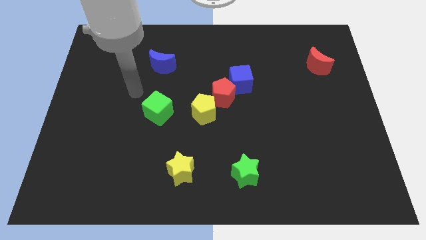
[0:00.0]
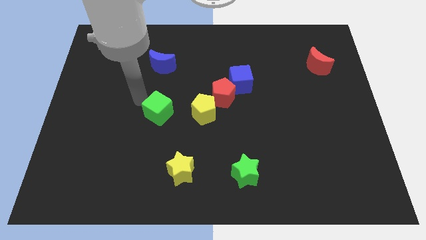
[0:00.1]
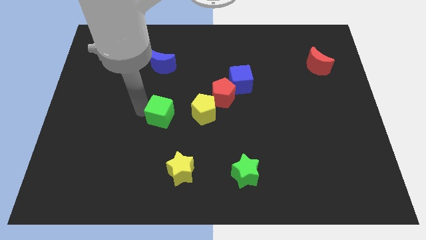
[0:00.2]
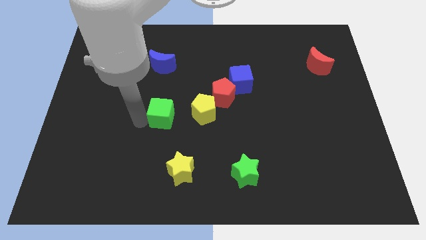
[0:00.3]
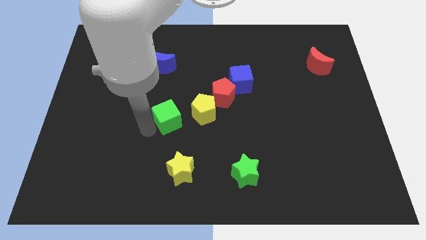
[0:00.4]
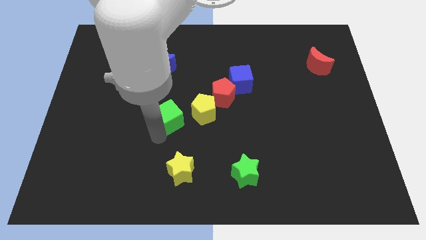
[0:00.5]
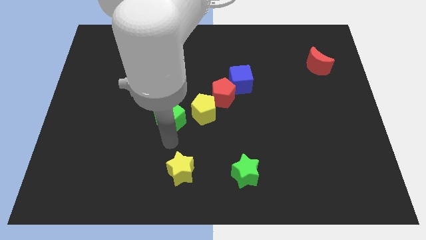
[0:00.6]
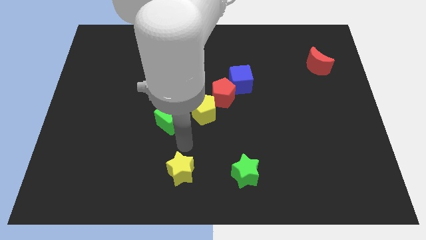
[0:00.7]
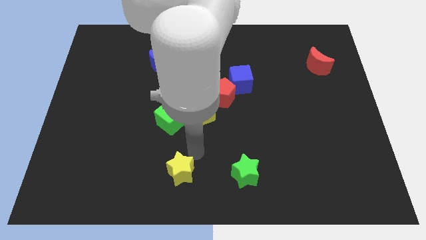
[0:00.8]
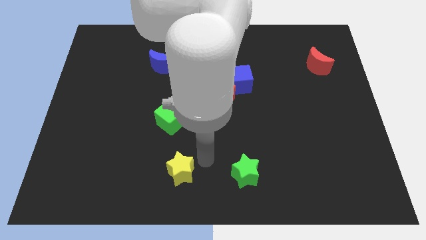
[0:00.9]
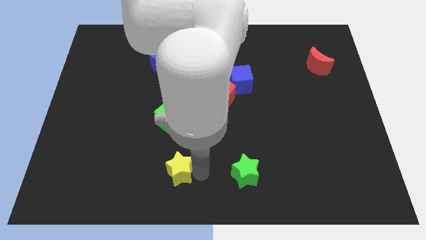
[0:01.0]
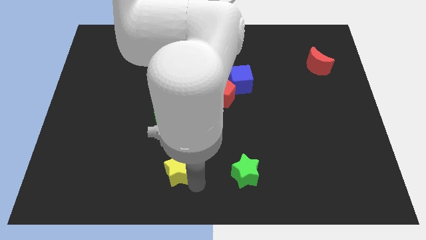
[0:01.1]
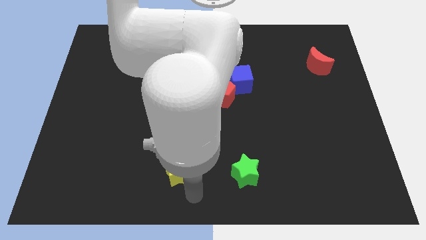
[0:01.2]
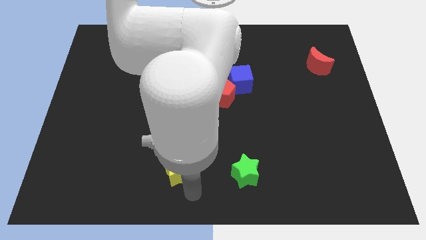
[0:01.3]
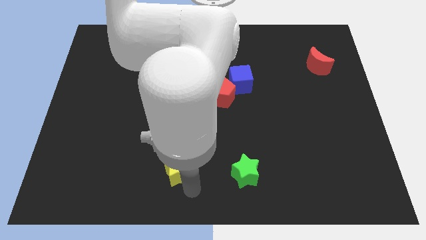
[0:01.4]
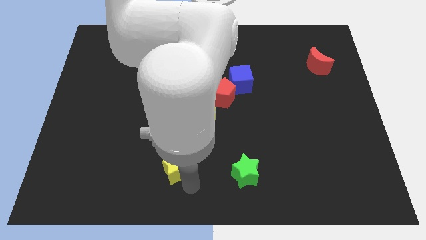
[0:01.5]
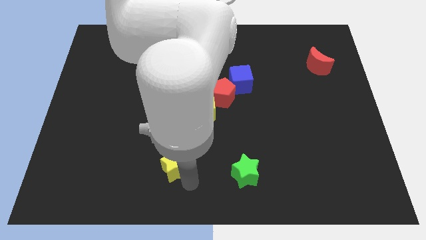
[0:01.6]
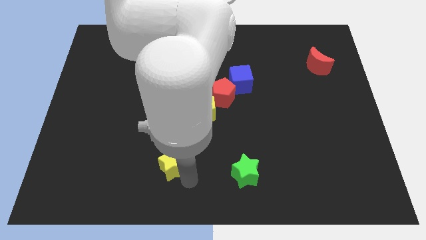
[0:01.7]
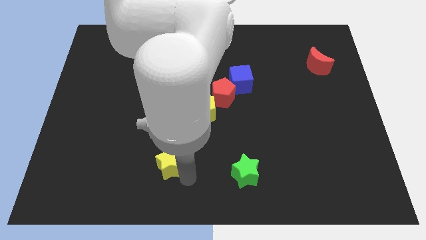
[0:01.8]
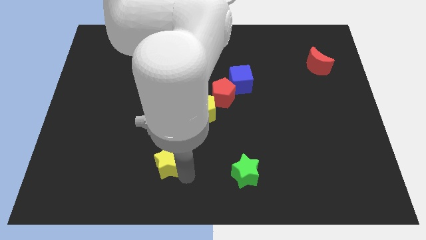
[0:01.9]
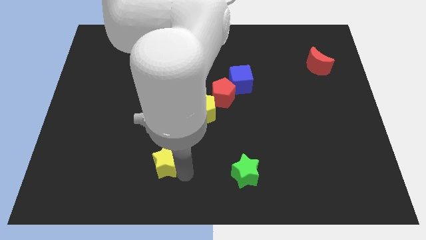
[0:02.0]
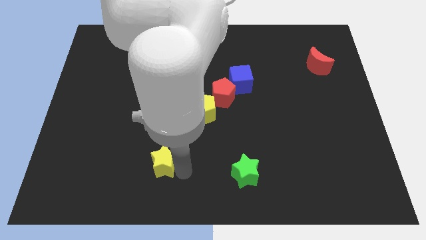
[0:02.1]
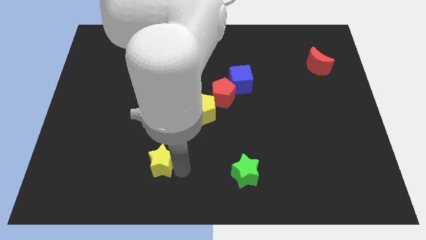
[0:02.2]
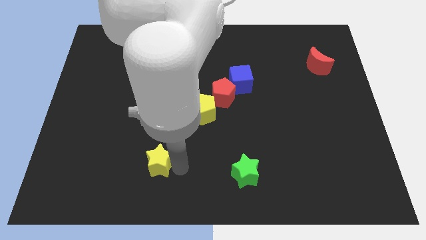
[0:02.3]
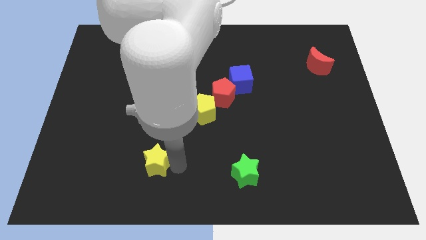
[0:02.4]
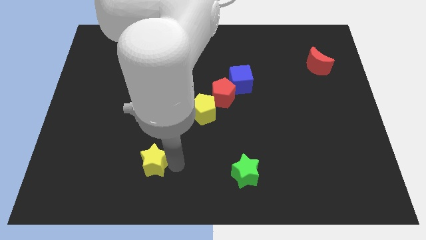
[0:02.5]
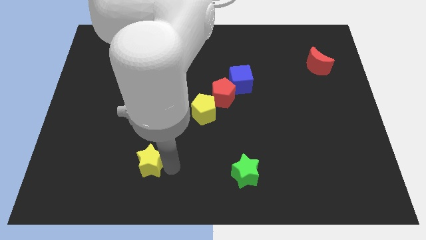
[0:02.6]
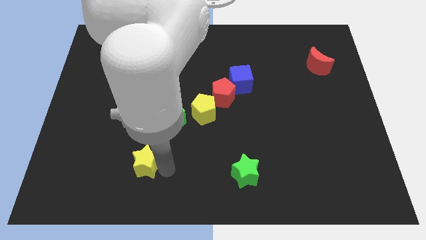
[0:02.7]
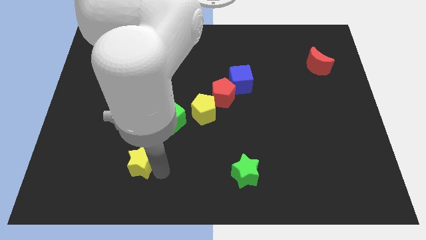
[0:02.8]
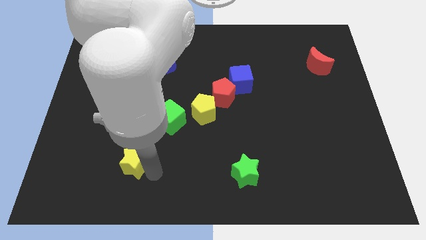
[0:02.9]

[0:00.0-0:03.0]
slide the yellow star diagonally up and to the left a little bit

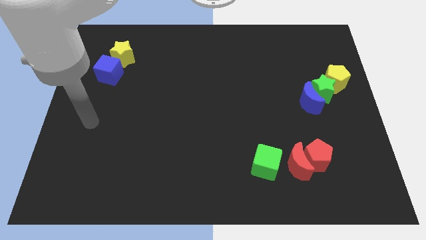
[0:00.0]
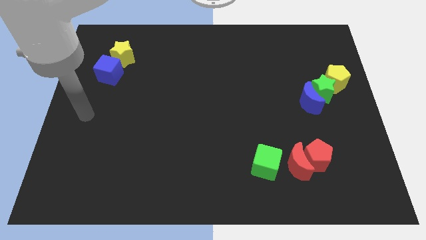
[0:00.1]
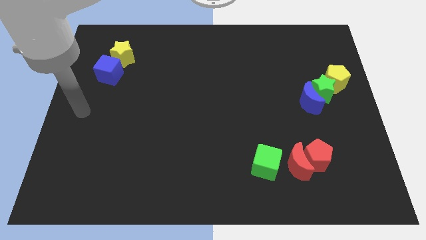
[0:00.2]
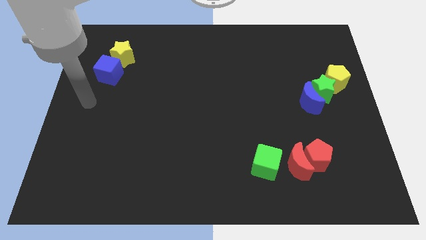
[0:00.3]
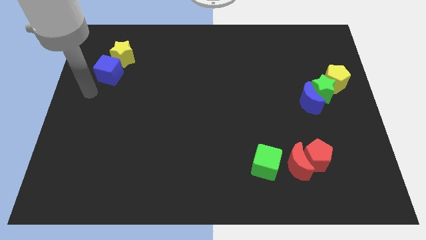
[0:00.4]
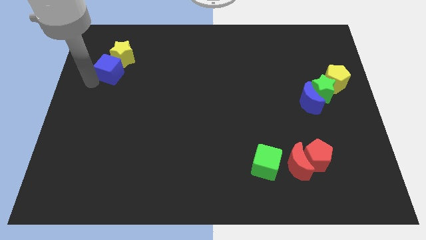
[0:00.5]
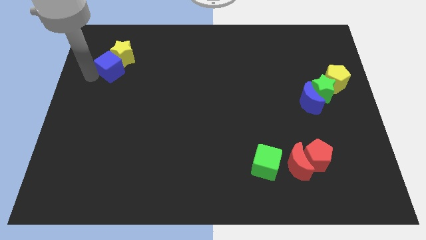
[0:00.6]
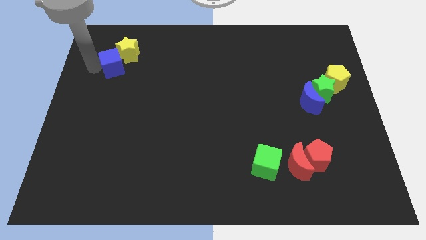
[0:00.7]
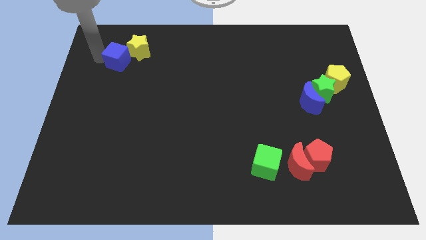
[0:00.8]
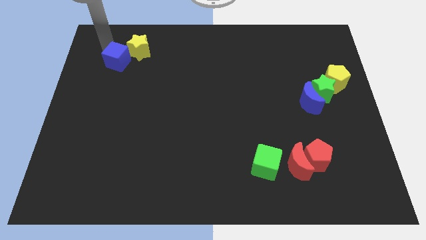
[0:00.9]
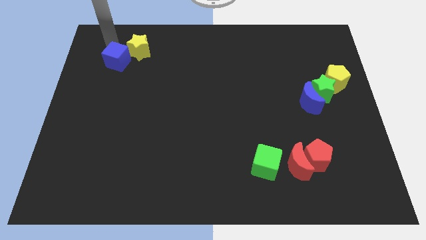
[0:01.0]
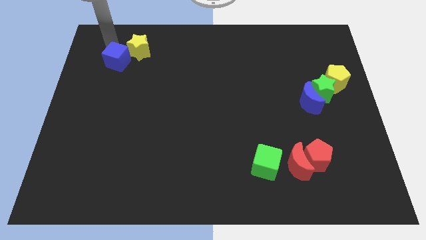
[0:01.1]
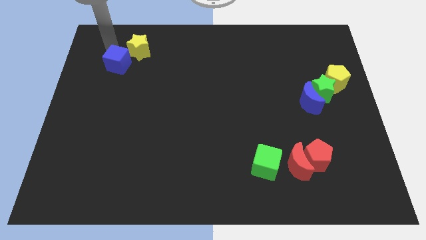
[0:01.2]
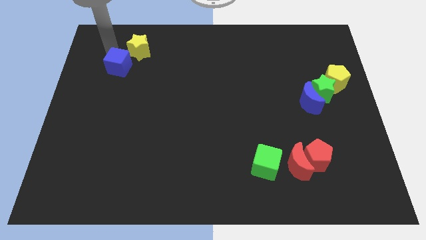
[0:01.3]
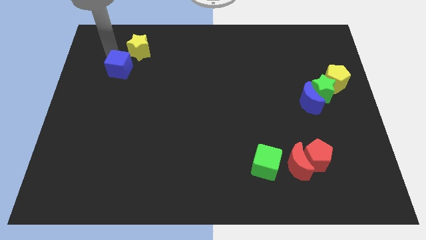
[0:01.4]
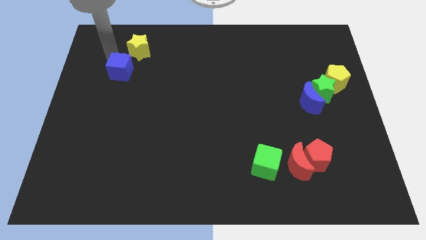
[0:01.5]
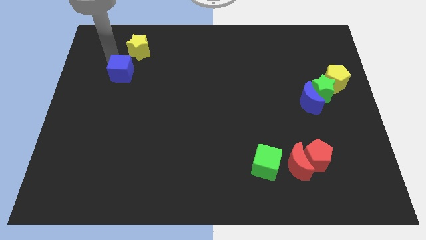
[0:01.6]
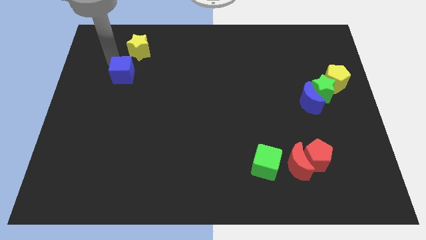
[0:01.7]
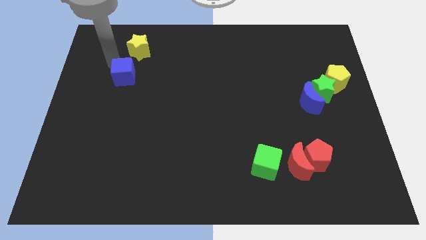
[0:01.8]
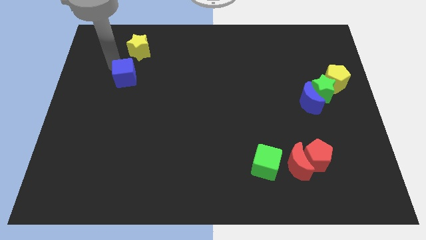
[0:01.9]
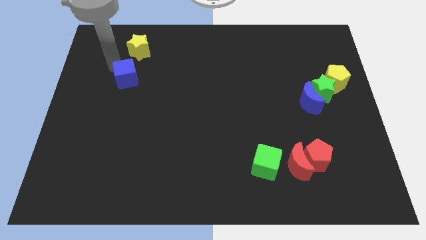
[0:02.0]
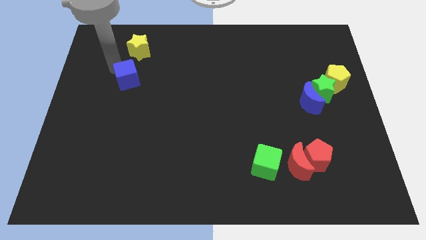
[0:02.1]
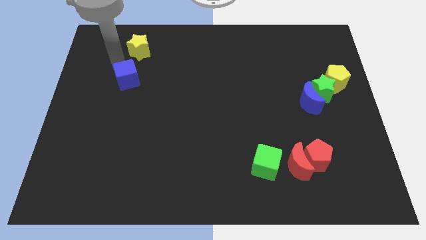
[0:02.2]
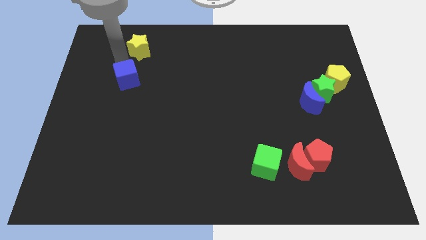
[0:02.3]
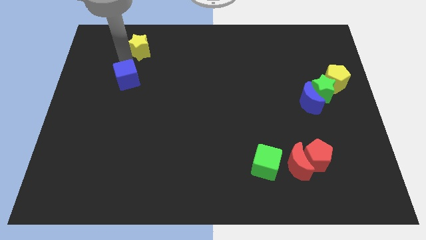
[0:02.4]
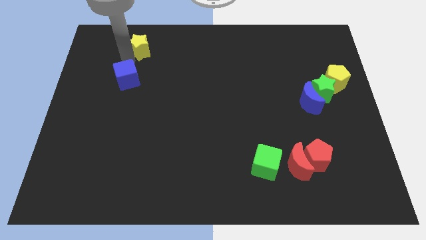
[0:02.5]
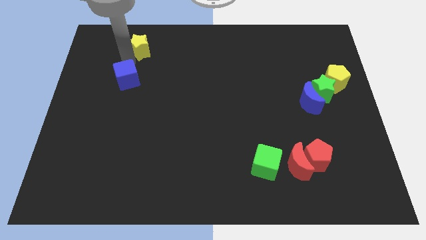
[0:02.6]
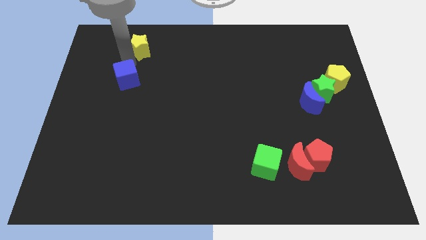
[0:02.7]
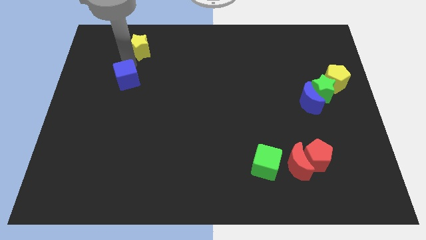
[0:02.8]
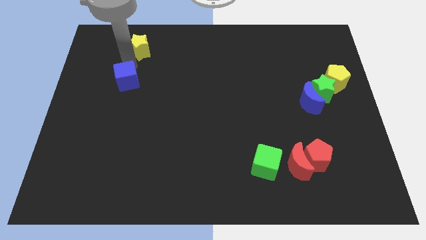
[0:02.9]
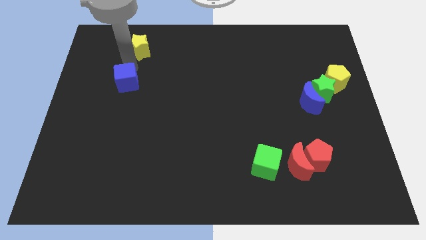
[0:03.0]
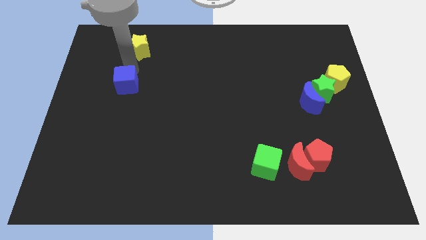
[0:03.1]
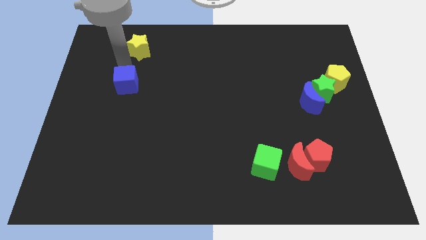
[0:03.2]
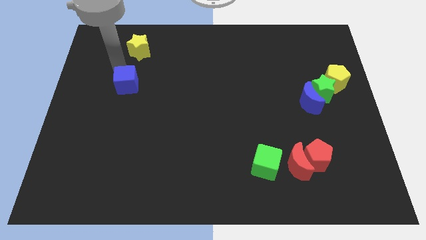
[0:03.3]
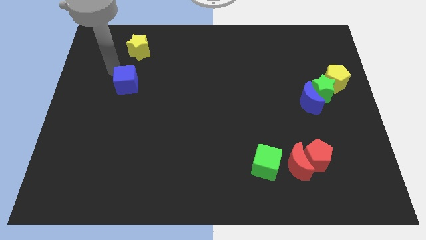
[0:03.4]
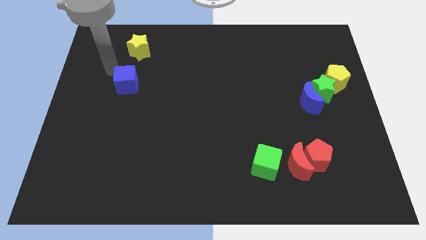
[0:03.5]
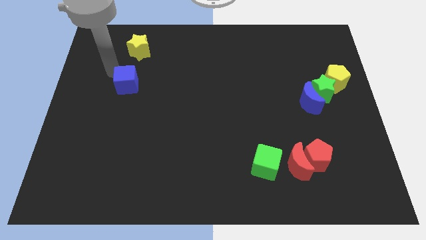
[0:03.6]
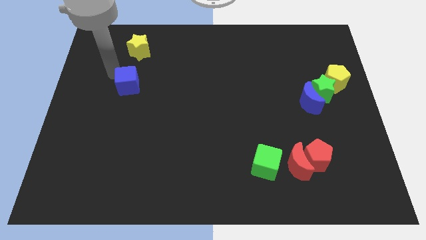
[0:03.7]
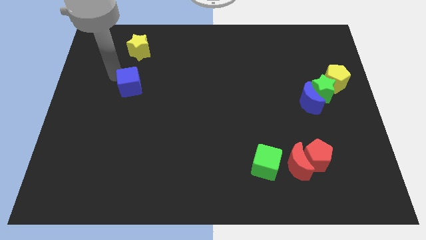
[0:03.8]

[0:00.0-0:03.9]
slightly slide the blue cube down and to the right diagonally

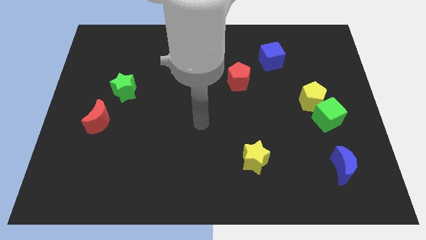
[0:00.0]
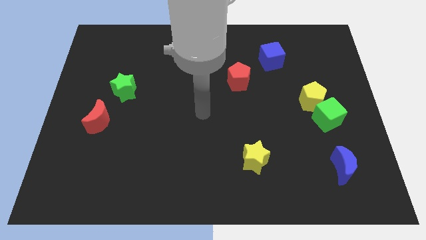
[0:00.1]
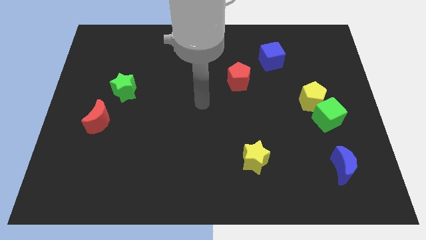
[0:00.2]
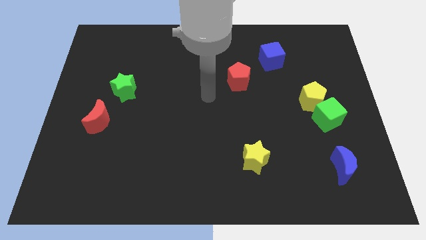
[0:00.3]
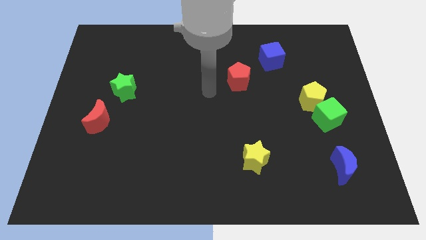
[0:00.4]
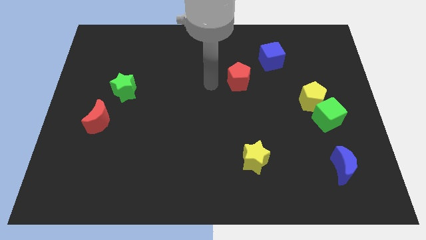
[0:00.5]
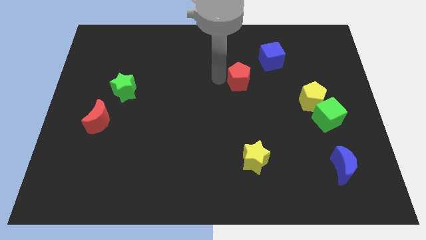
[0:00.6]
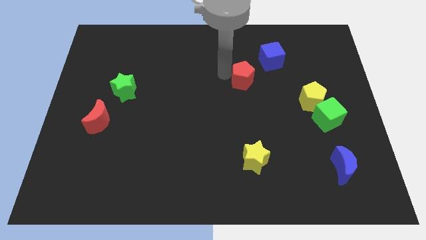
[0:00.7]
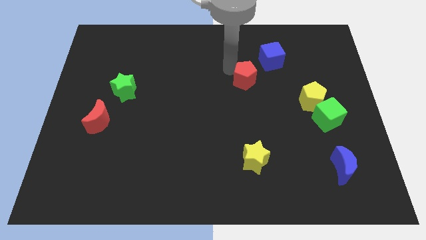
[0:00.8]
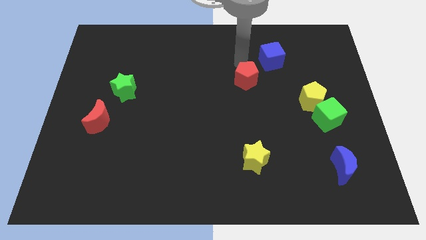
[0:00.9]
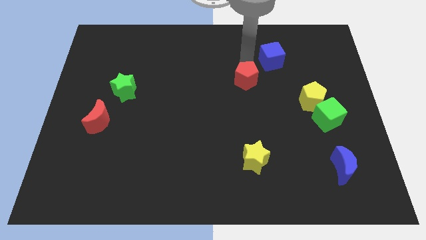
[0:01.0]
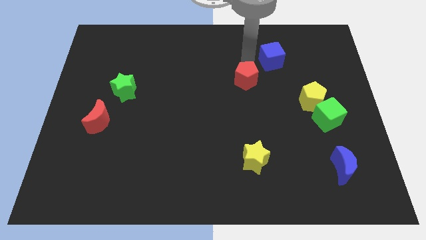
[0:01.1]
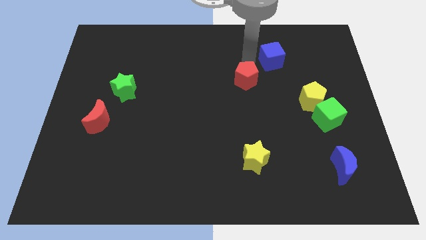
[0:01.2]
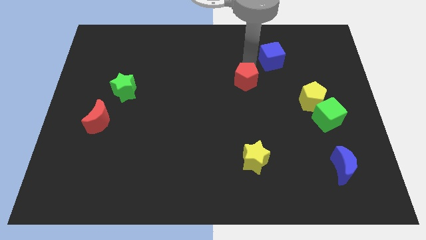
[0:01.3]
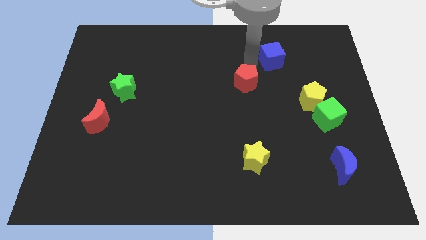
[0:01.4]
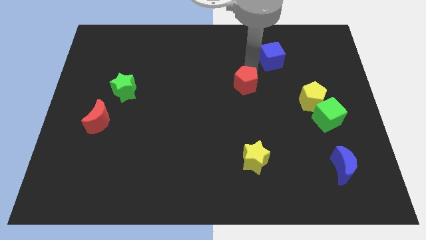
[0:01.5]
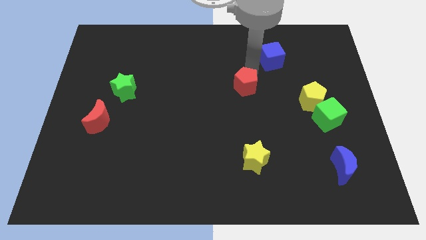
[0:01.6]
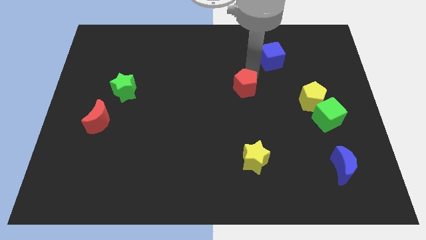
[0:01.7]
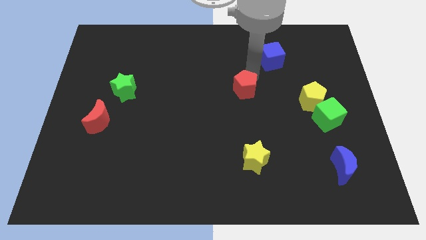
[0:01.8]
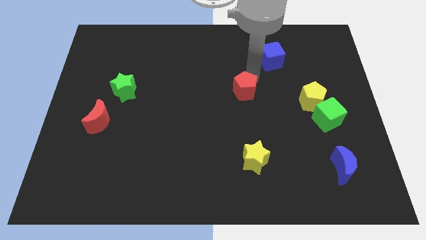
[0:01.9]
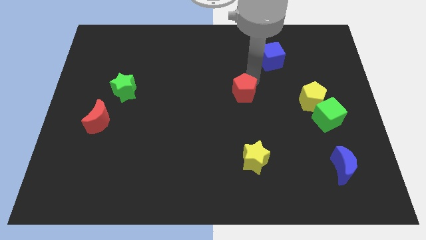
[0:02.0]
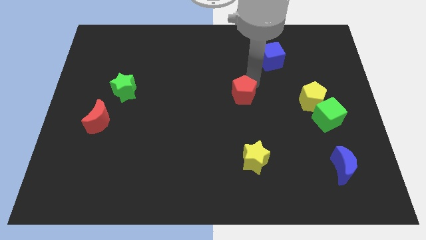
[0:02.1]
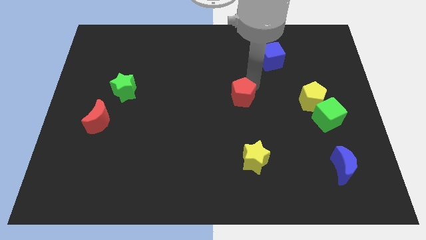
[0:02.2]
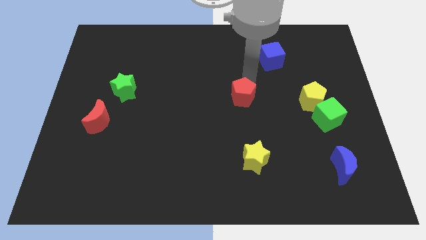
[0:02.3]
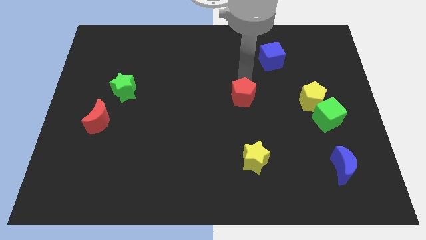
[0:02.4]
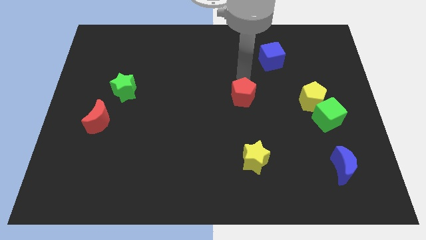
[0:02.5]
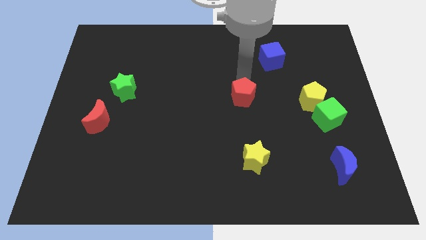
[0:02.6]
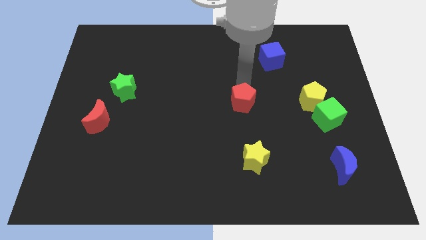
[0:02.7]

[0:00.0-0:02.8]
move the red pentagon downwards somewhat
